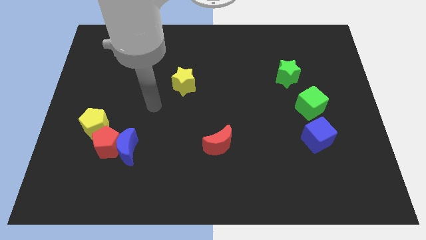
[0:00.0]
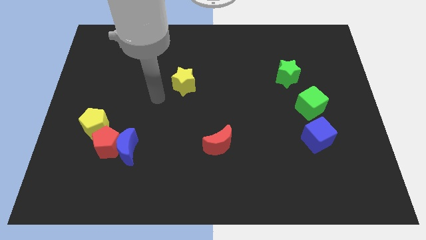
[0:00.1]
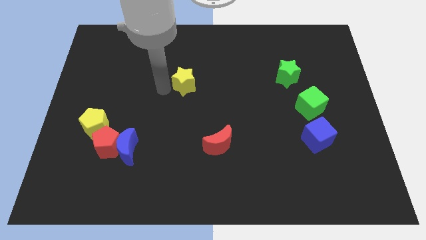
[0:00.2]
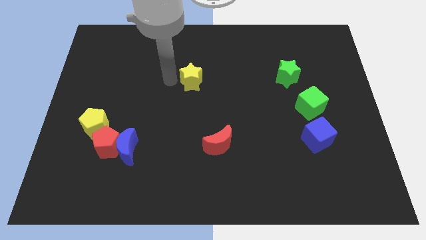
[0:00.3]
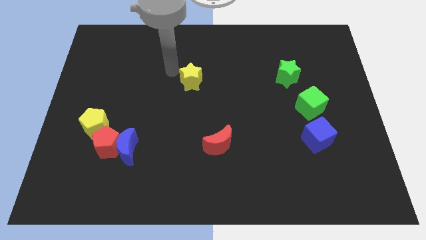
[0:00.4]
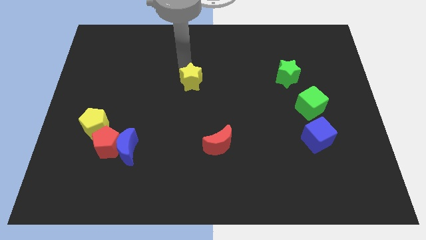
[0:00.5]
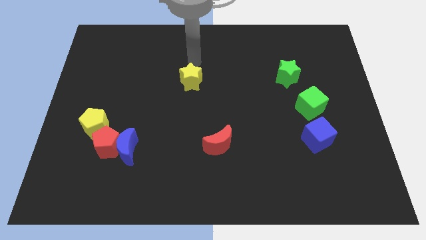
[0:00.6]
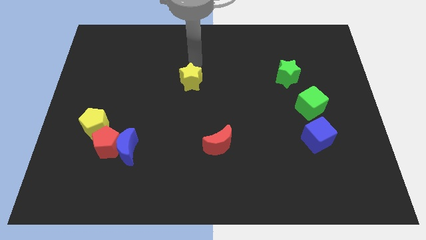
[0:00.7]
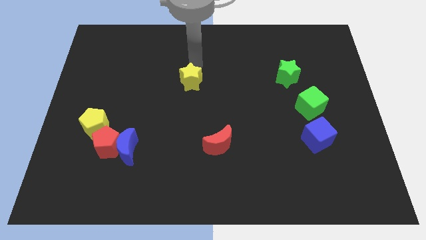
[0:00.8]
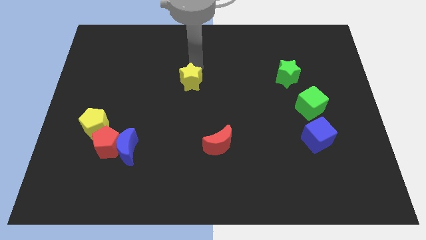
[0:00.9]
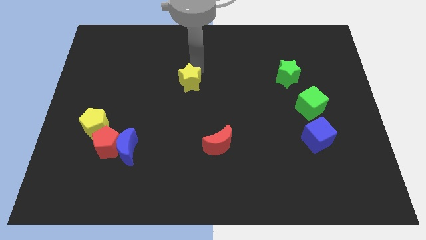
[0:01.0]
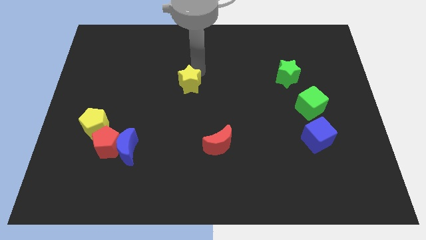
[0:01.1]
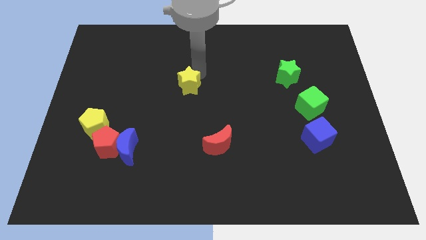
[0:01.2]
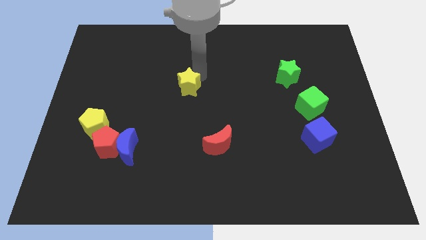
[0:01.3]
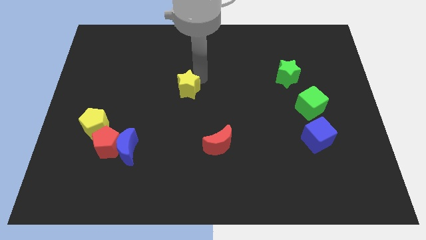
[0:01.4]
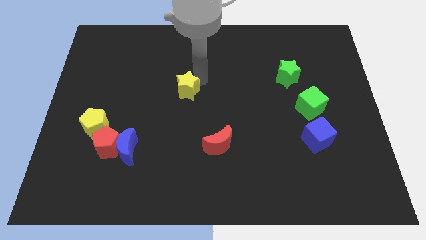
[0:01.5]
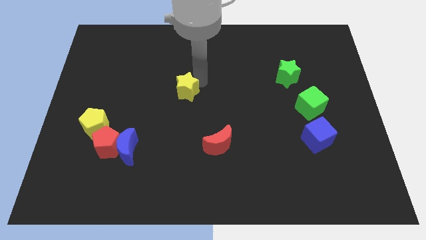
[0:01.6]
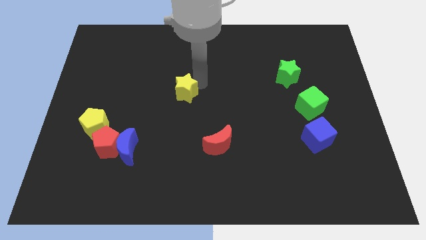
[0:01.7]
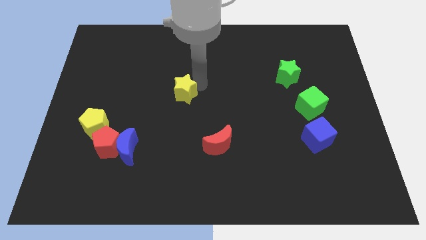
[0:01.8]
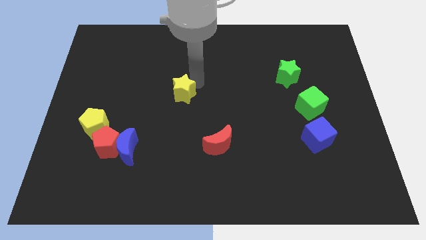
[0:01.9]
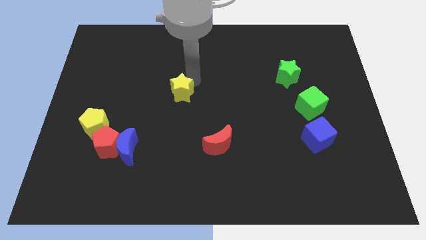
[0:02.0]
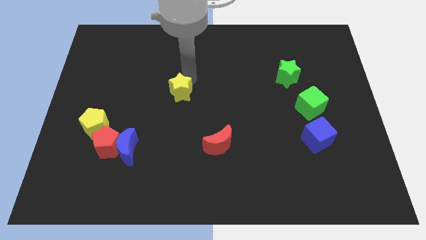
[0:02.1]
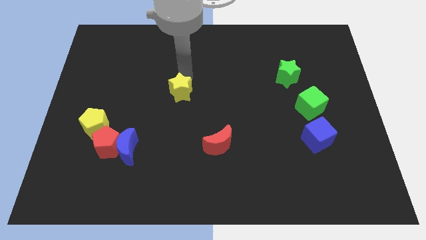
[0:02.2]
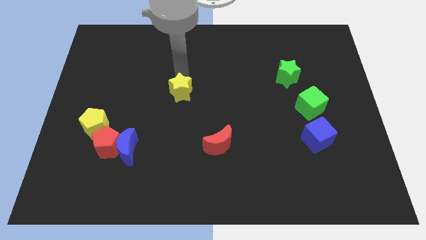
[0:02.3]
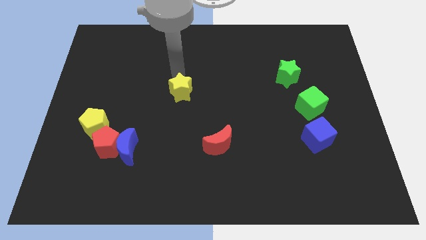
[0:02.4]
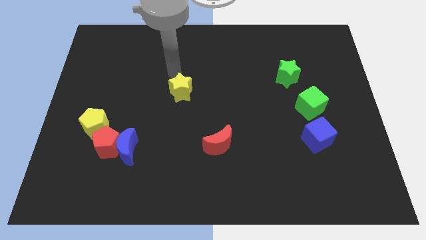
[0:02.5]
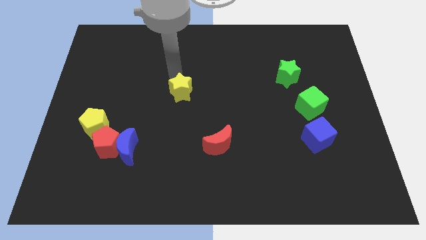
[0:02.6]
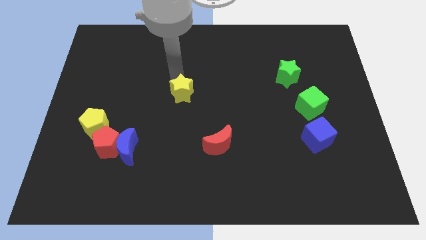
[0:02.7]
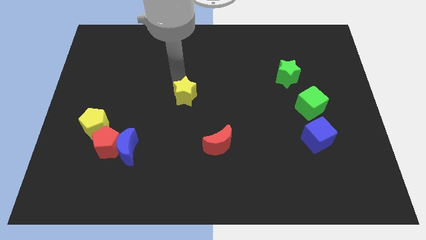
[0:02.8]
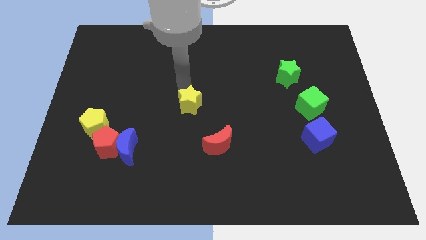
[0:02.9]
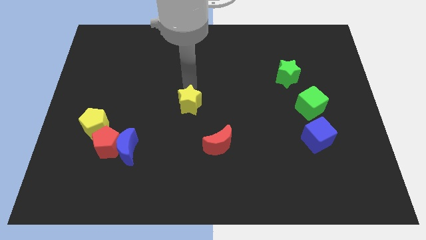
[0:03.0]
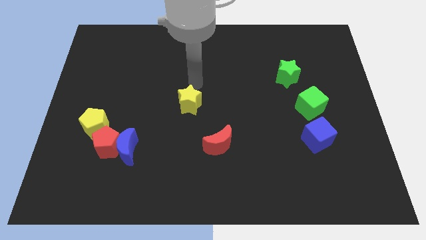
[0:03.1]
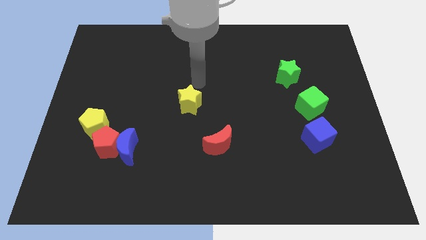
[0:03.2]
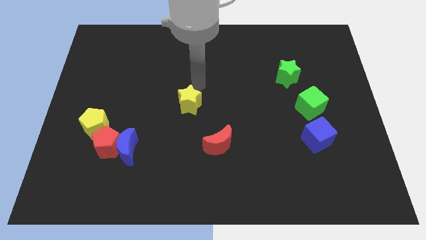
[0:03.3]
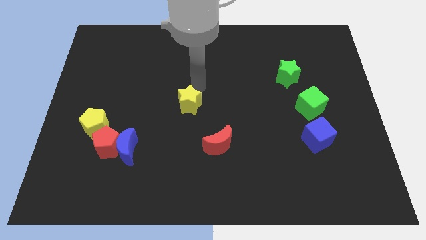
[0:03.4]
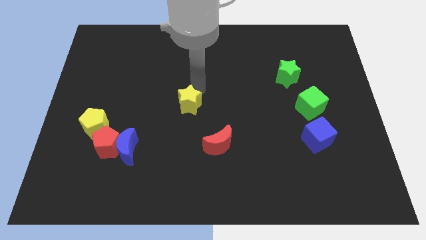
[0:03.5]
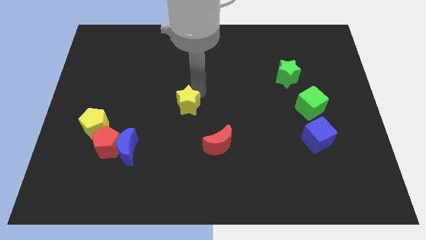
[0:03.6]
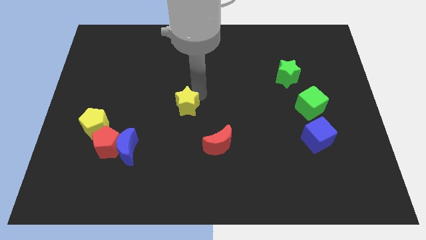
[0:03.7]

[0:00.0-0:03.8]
push the yellow star somewhat down

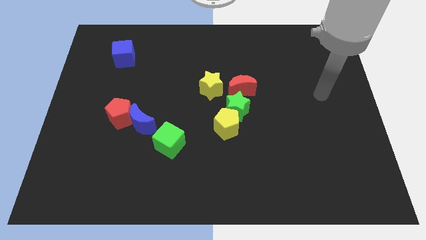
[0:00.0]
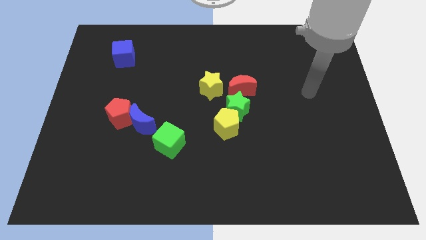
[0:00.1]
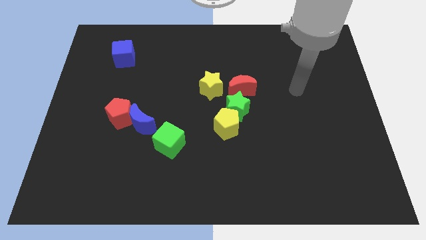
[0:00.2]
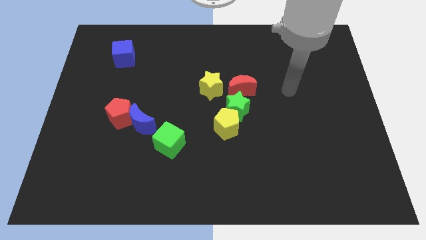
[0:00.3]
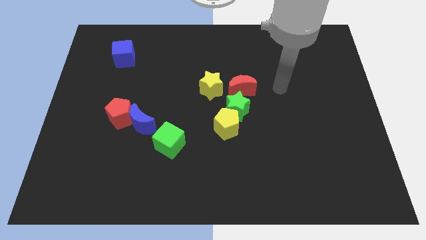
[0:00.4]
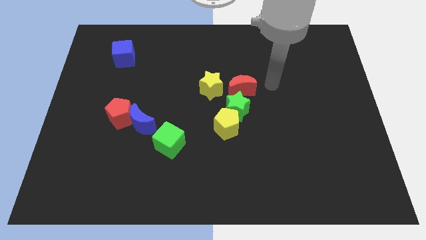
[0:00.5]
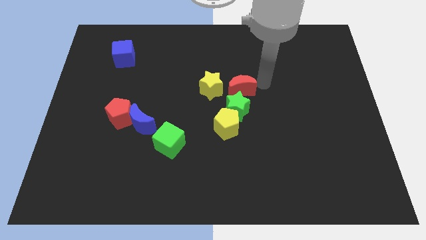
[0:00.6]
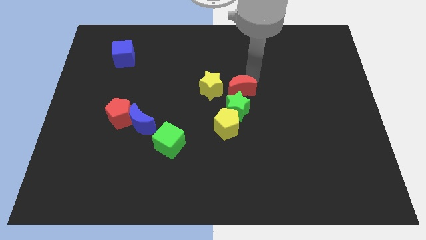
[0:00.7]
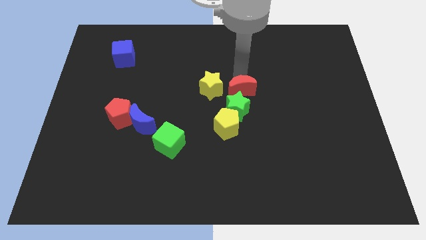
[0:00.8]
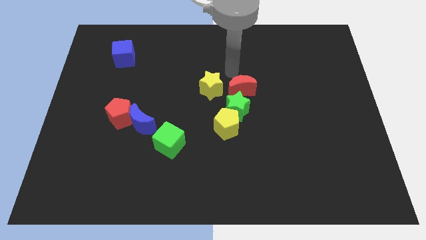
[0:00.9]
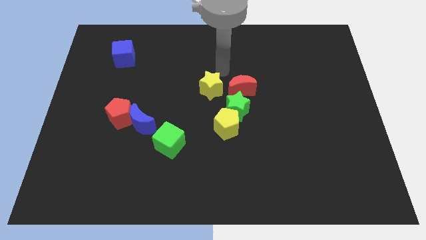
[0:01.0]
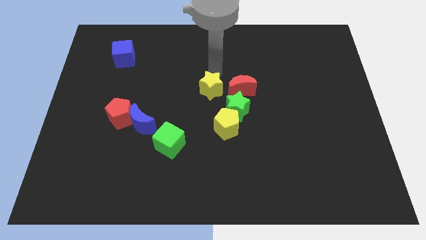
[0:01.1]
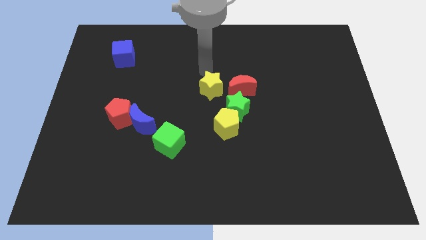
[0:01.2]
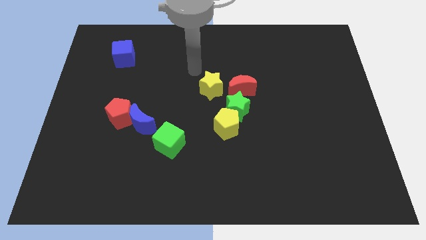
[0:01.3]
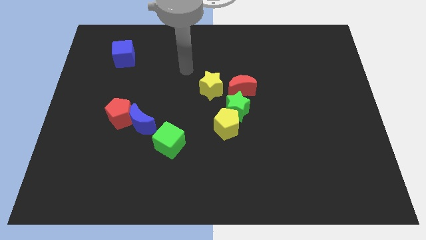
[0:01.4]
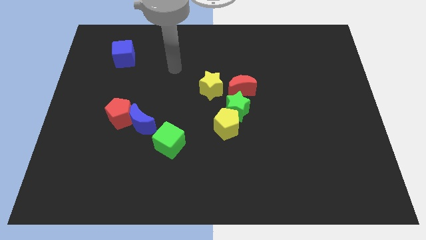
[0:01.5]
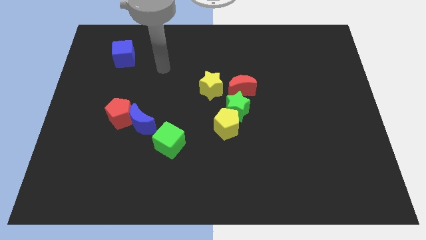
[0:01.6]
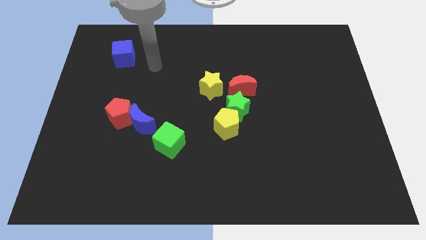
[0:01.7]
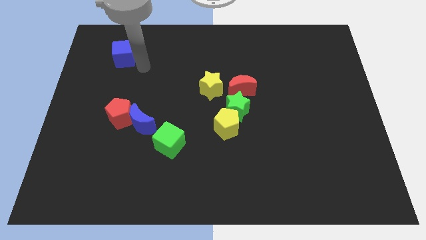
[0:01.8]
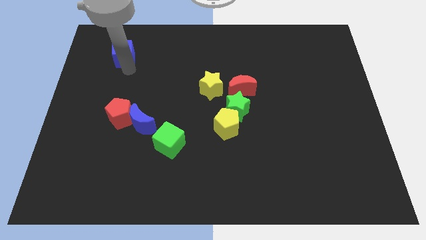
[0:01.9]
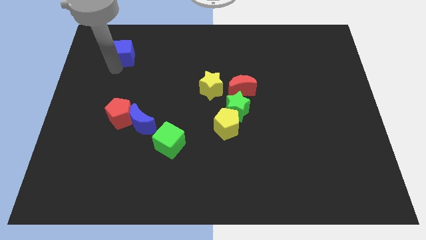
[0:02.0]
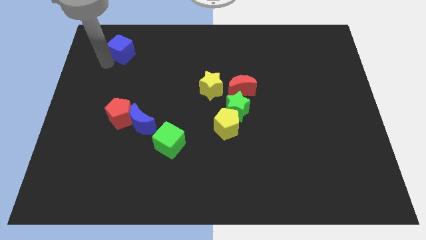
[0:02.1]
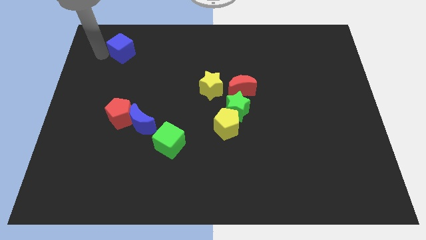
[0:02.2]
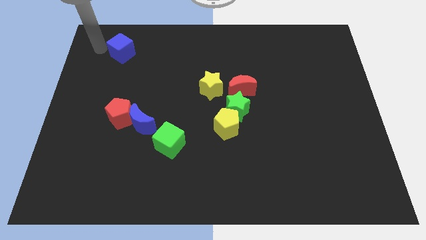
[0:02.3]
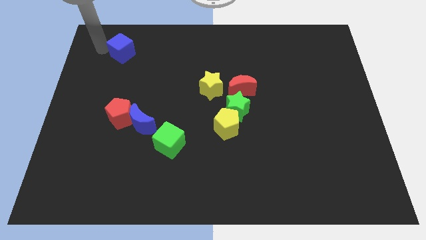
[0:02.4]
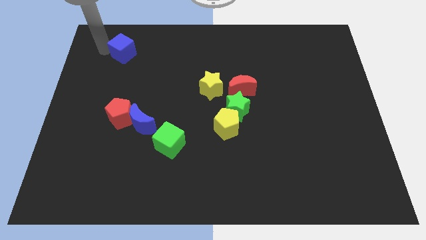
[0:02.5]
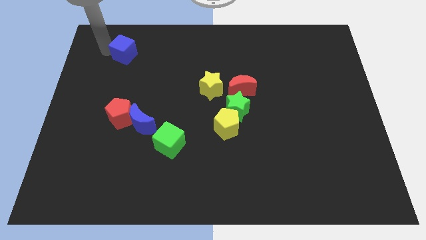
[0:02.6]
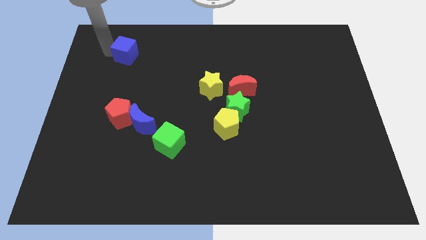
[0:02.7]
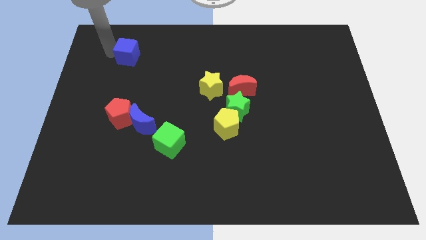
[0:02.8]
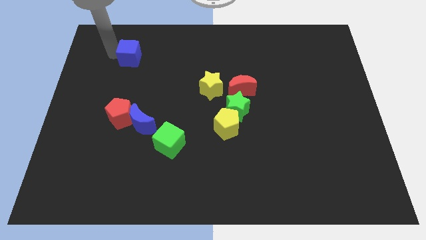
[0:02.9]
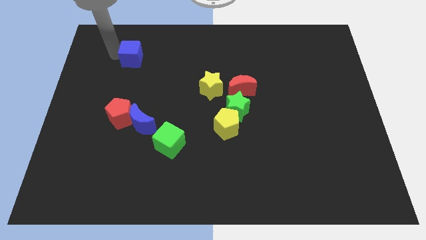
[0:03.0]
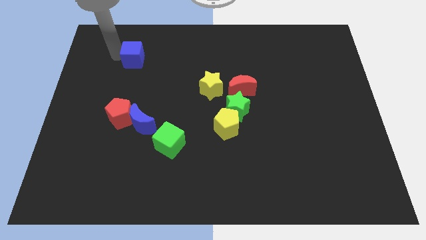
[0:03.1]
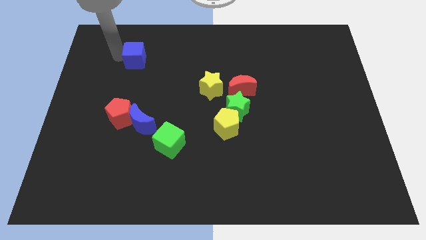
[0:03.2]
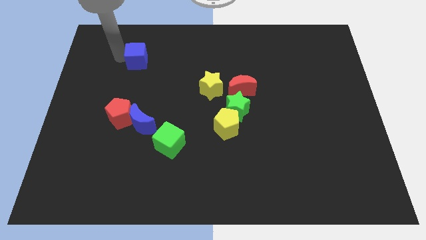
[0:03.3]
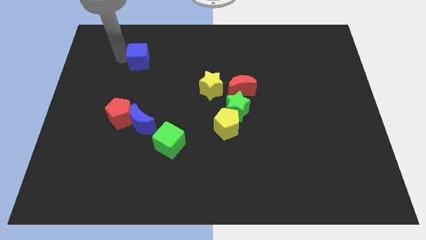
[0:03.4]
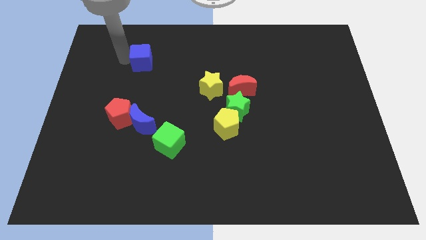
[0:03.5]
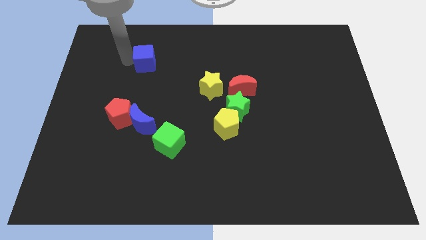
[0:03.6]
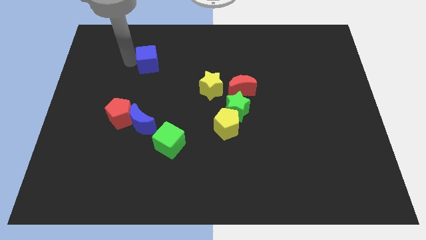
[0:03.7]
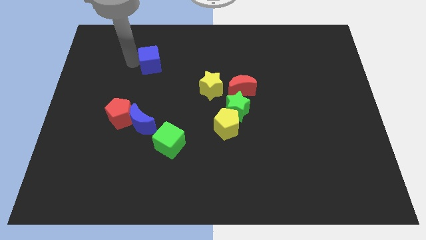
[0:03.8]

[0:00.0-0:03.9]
push the blue cube a little right

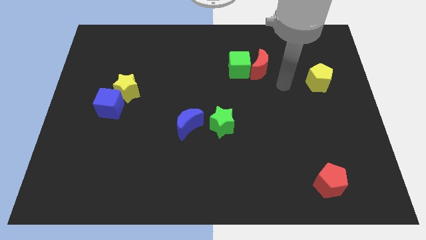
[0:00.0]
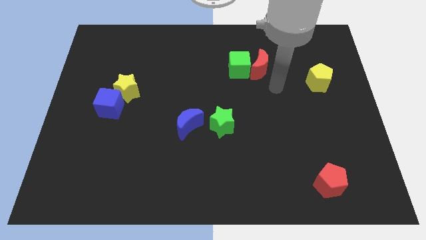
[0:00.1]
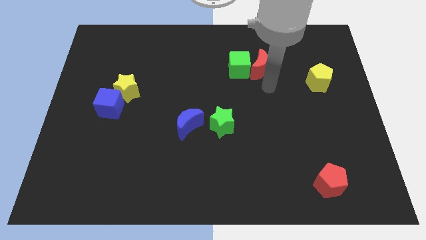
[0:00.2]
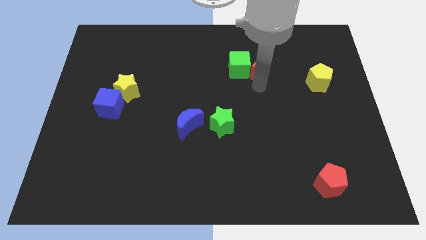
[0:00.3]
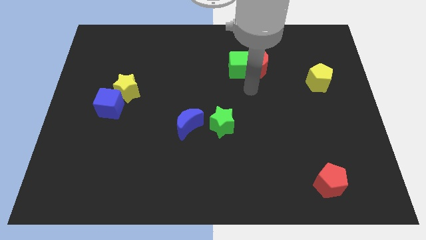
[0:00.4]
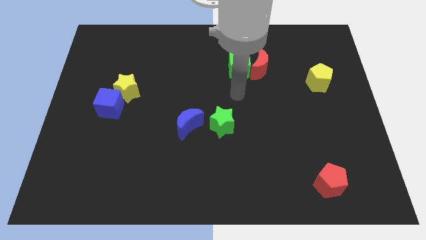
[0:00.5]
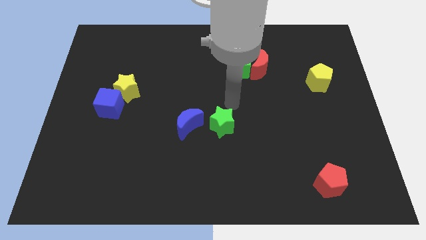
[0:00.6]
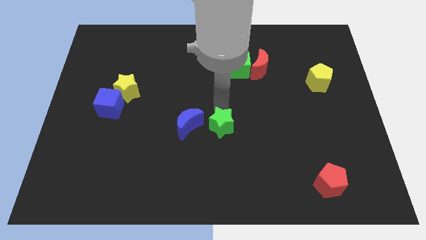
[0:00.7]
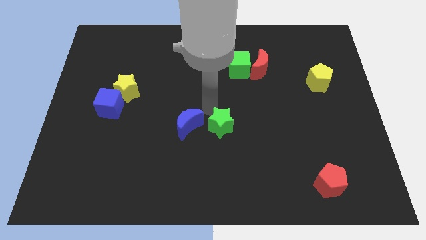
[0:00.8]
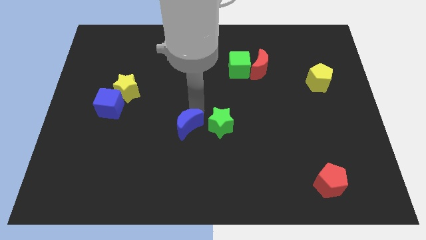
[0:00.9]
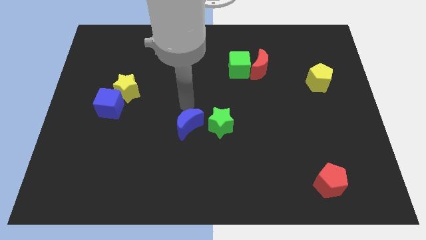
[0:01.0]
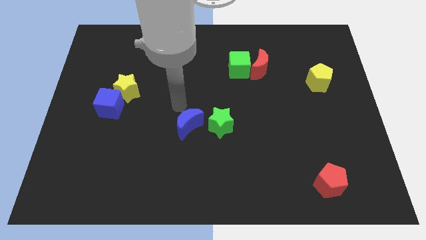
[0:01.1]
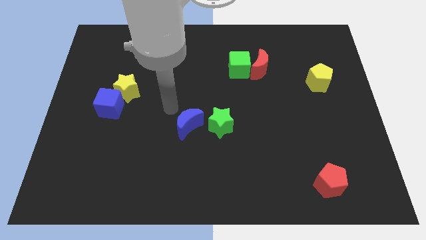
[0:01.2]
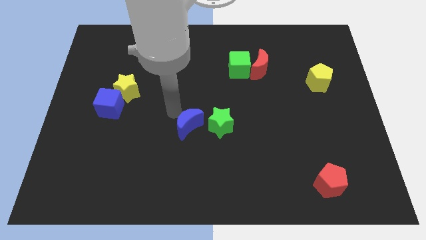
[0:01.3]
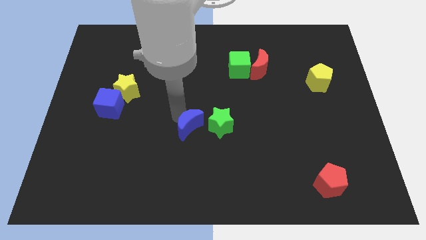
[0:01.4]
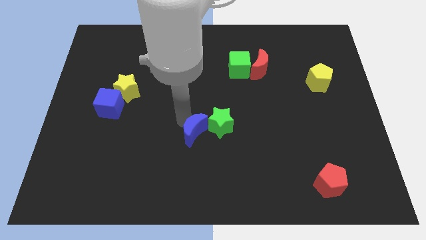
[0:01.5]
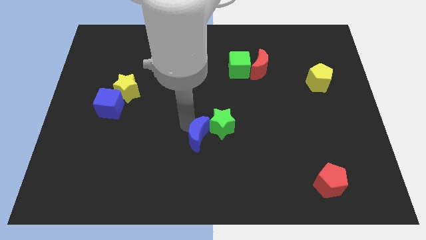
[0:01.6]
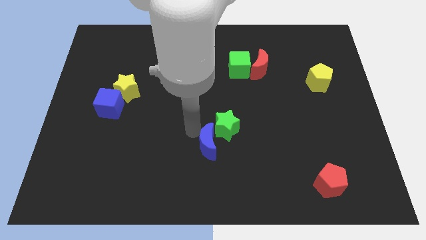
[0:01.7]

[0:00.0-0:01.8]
push the blue moon down and to the right diagonally somewhat
